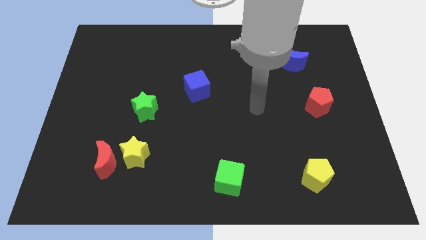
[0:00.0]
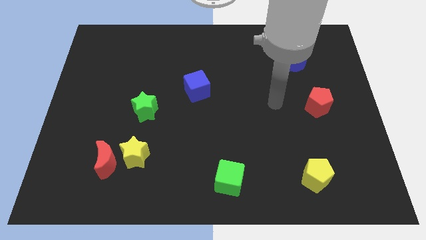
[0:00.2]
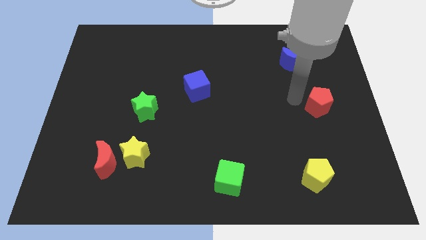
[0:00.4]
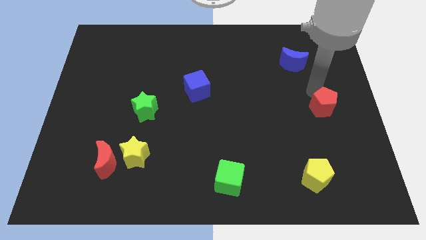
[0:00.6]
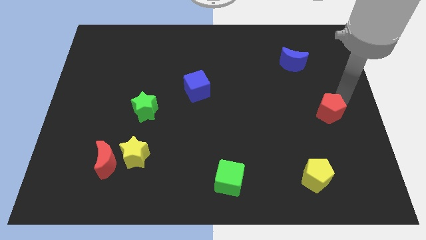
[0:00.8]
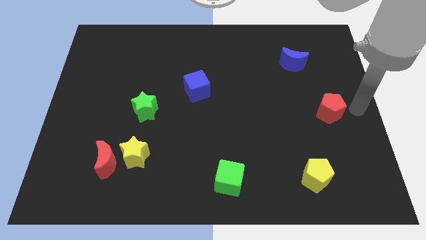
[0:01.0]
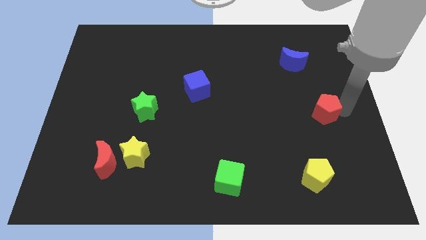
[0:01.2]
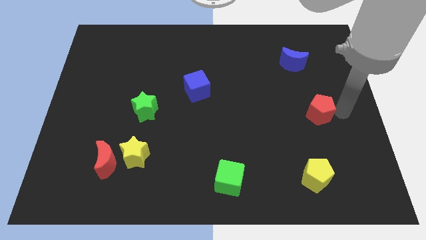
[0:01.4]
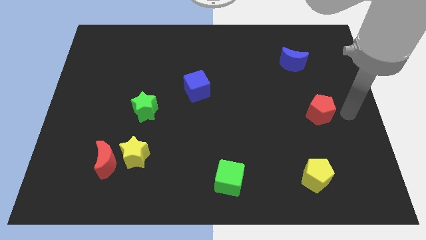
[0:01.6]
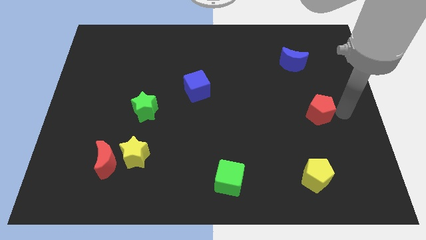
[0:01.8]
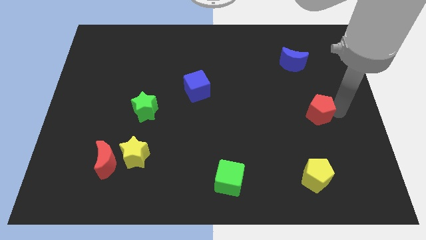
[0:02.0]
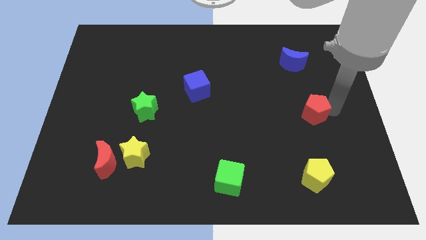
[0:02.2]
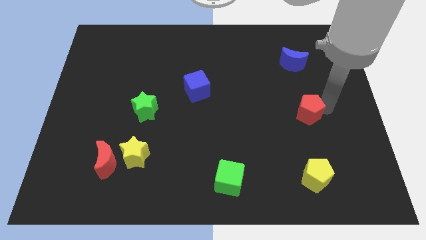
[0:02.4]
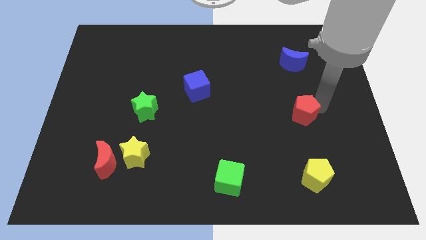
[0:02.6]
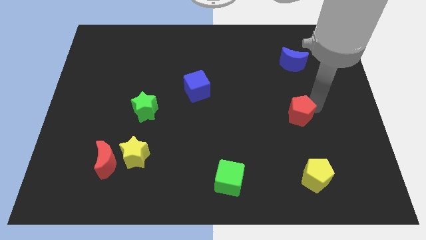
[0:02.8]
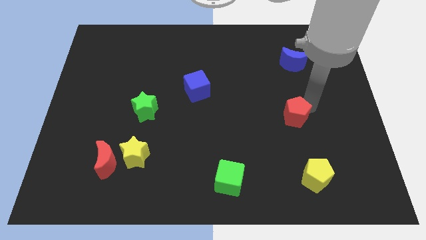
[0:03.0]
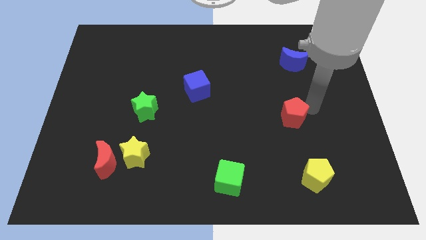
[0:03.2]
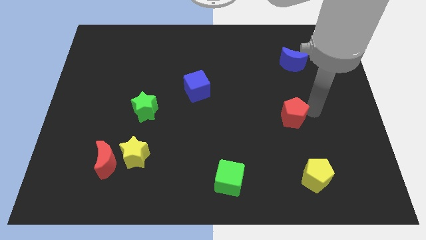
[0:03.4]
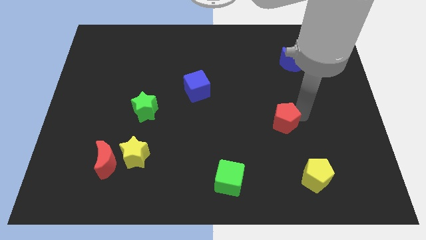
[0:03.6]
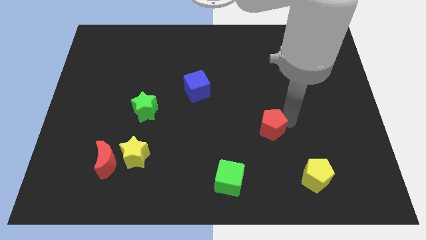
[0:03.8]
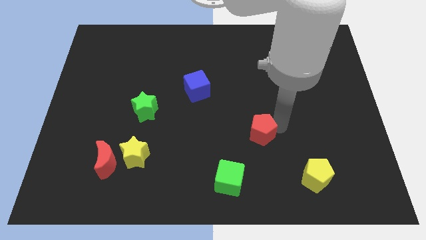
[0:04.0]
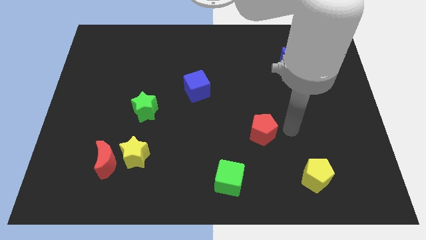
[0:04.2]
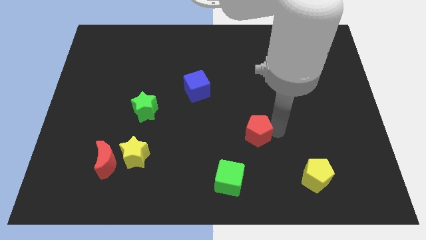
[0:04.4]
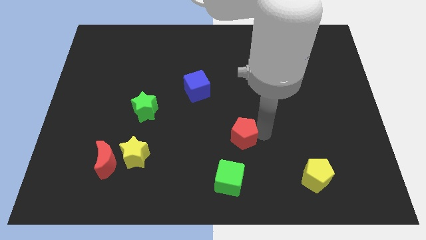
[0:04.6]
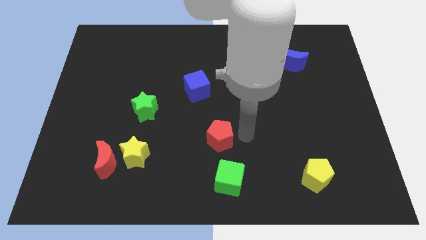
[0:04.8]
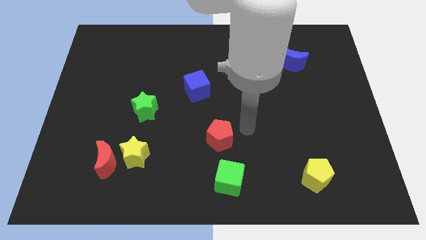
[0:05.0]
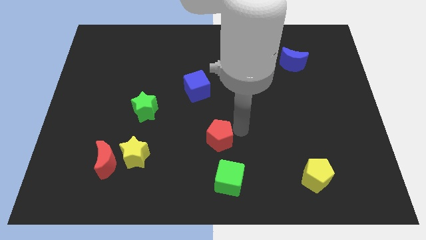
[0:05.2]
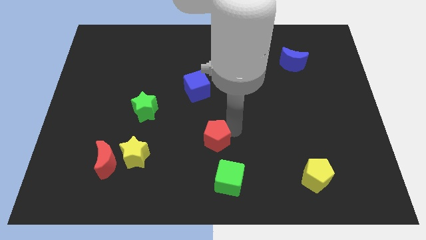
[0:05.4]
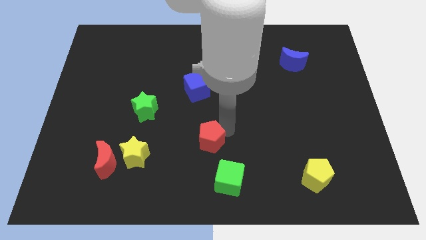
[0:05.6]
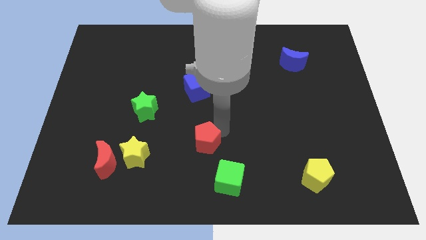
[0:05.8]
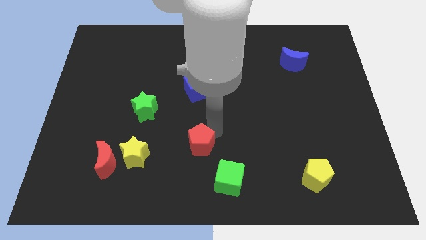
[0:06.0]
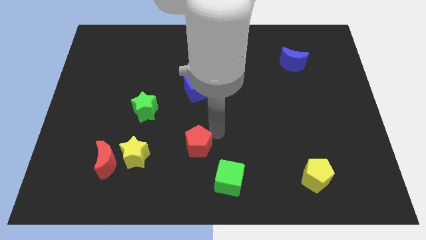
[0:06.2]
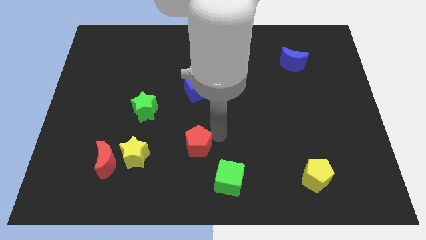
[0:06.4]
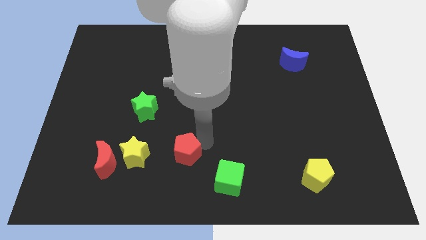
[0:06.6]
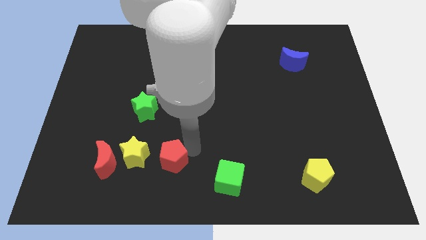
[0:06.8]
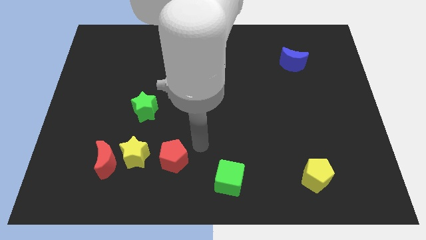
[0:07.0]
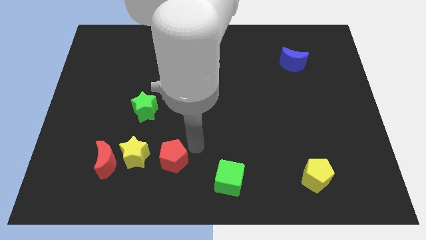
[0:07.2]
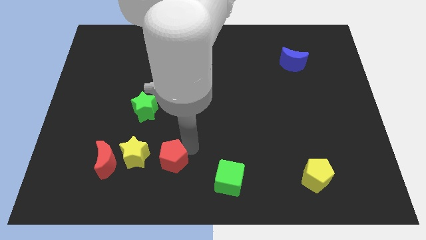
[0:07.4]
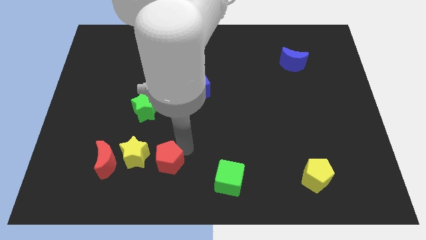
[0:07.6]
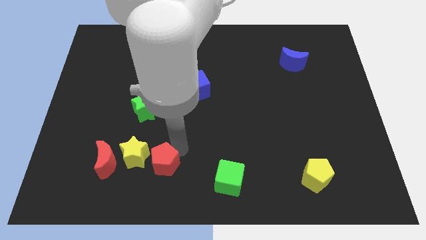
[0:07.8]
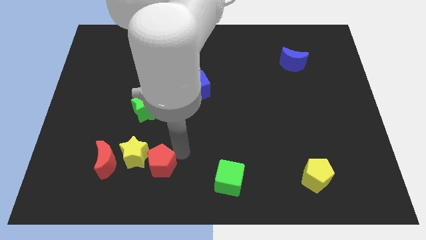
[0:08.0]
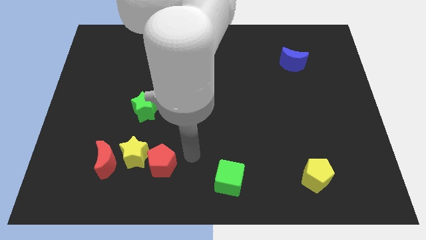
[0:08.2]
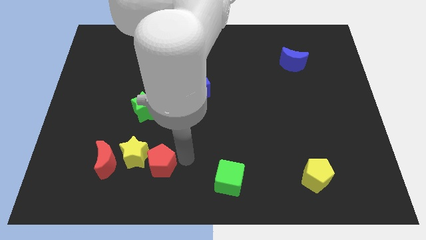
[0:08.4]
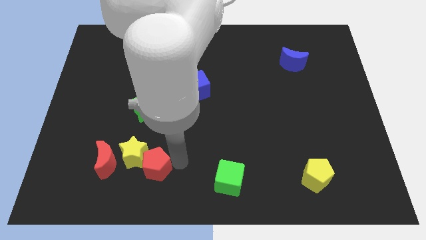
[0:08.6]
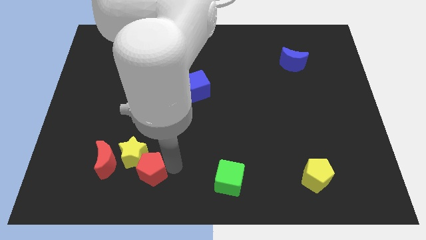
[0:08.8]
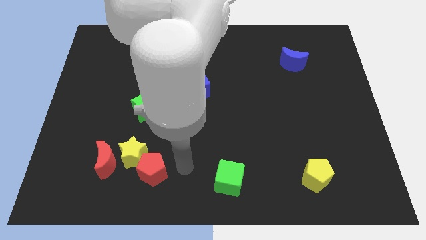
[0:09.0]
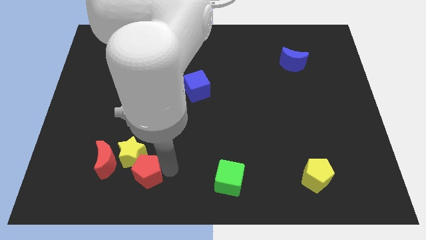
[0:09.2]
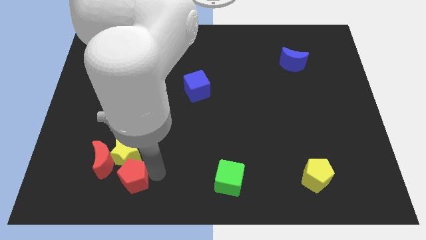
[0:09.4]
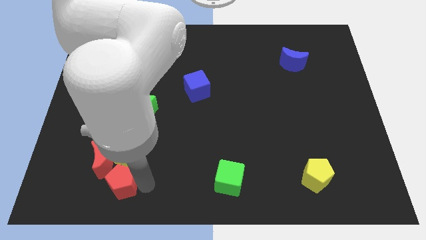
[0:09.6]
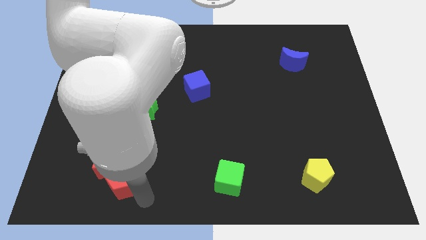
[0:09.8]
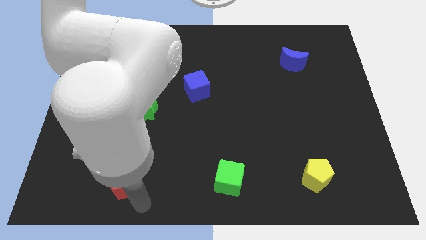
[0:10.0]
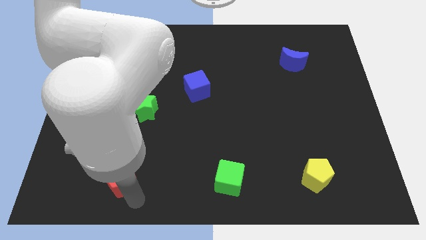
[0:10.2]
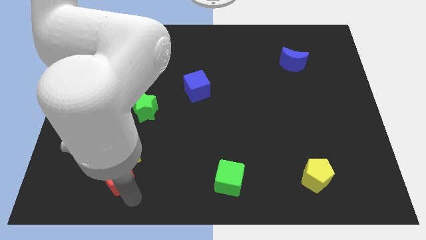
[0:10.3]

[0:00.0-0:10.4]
put the red pentagon towards the red moon

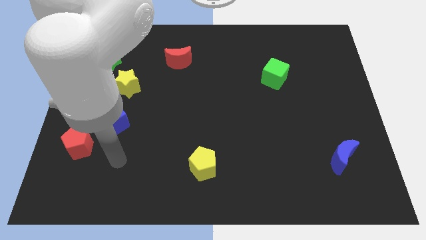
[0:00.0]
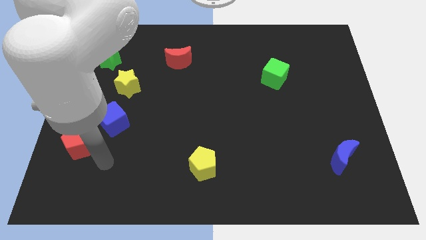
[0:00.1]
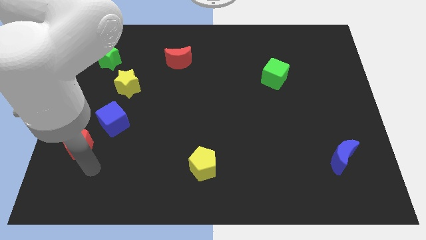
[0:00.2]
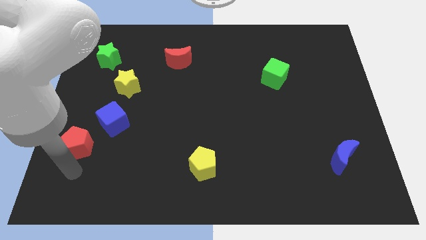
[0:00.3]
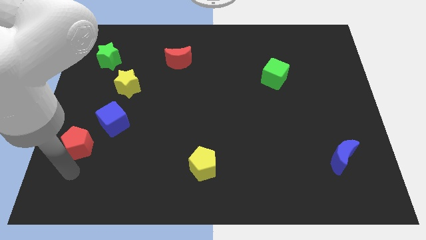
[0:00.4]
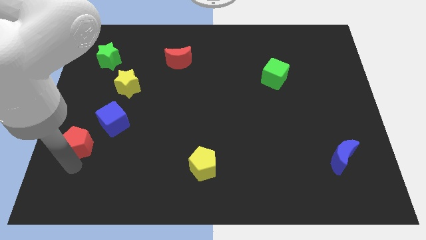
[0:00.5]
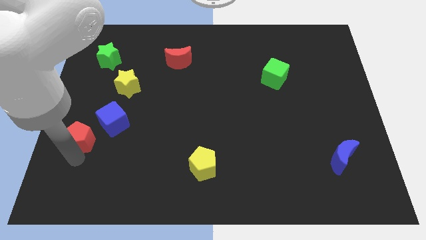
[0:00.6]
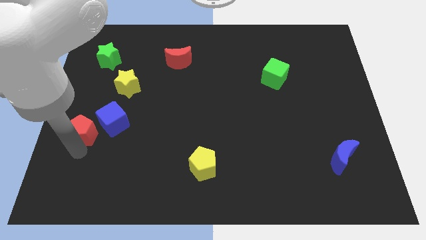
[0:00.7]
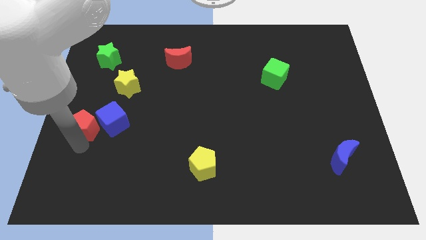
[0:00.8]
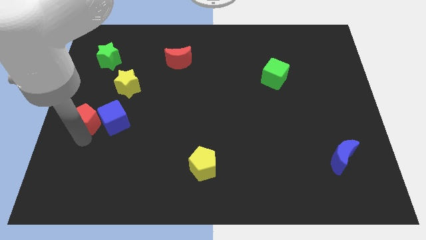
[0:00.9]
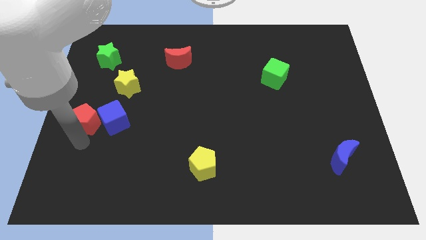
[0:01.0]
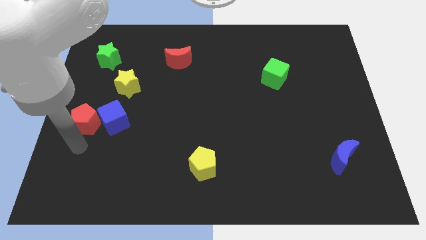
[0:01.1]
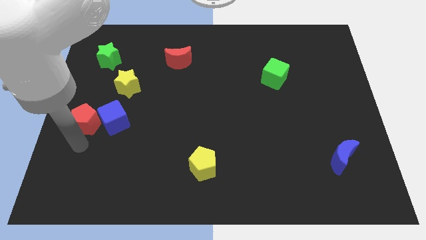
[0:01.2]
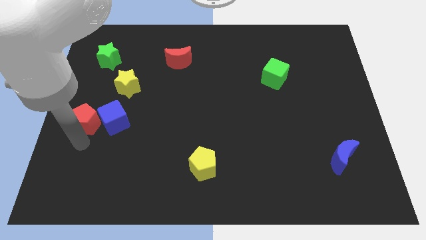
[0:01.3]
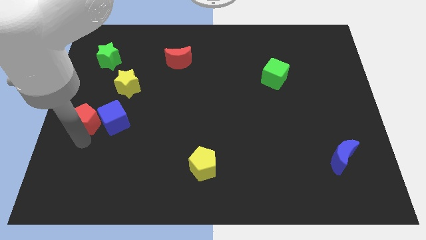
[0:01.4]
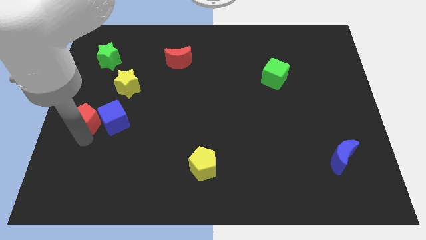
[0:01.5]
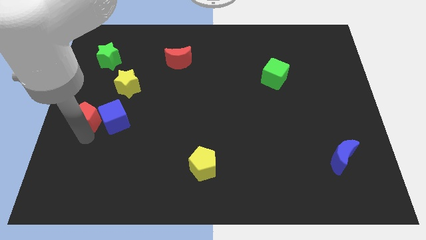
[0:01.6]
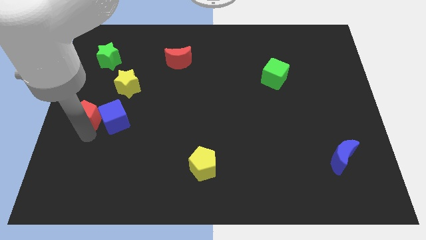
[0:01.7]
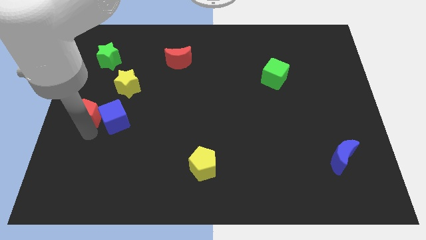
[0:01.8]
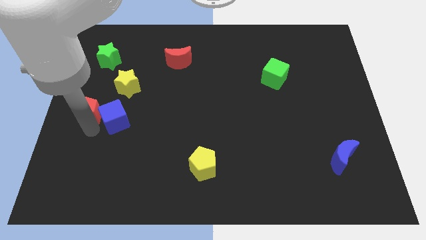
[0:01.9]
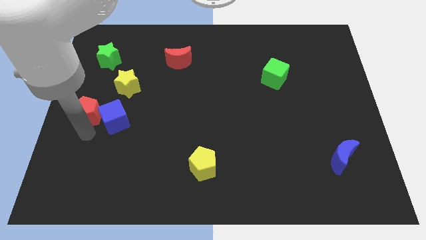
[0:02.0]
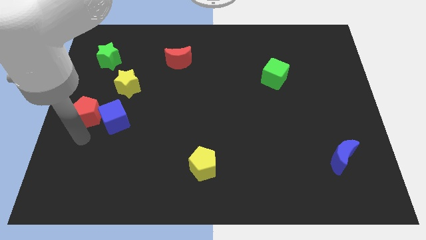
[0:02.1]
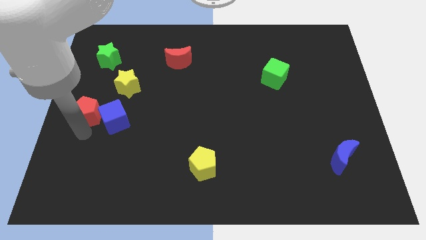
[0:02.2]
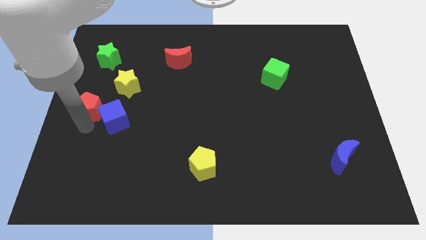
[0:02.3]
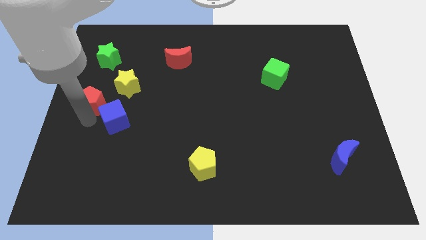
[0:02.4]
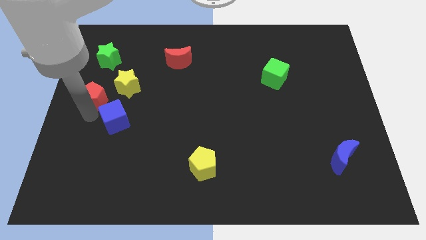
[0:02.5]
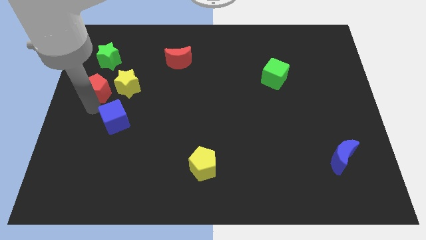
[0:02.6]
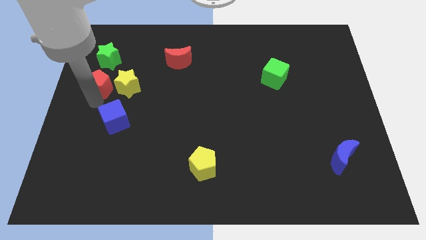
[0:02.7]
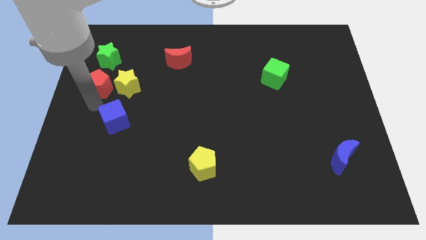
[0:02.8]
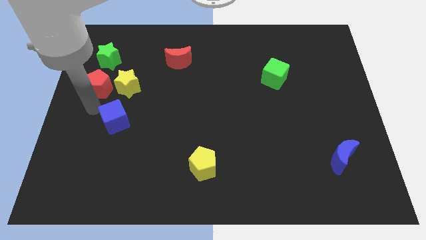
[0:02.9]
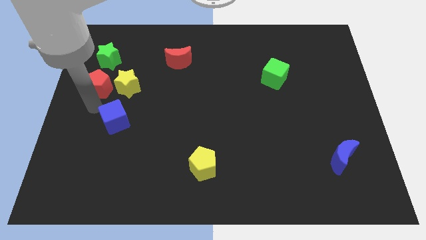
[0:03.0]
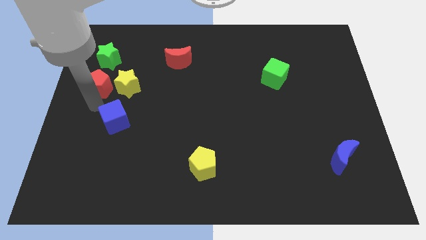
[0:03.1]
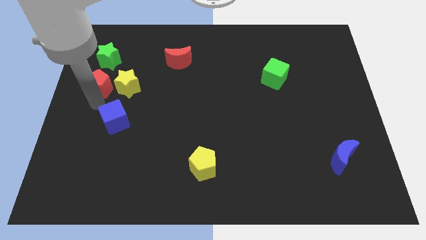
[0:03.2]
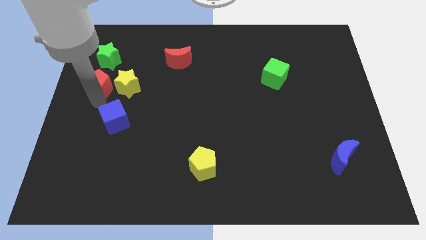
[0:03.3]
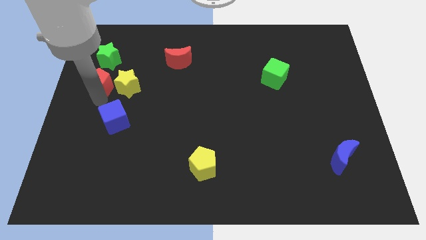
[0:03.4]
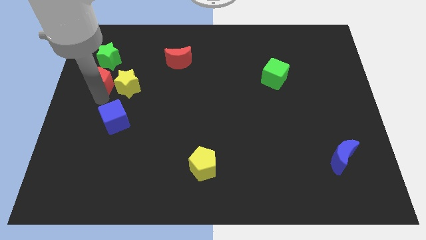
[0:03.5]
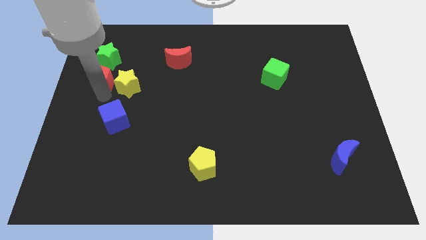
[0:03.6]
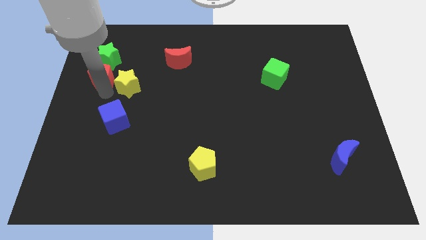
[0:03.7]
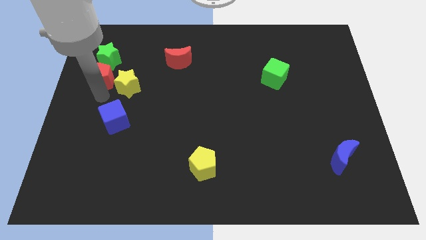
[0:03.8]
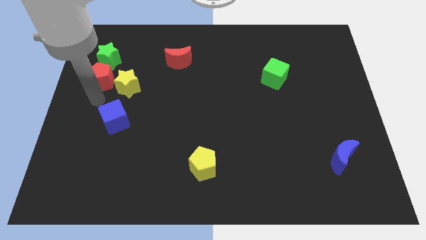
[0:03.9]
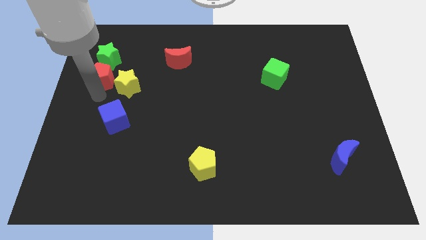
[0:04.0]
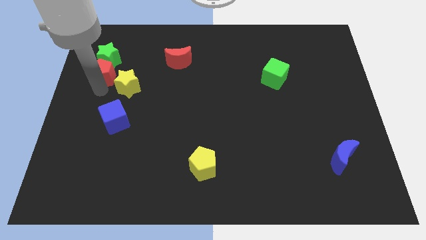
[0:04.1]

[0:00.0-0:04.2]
slide the red pentagon towards the green star
